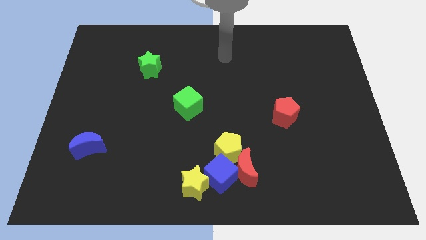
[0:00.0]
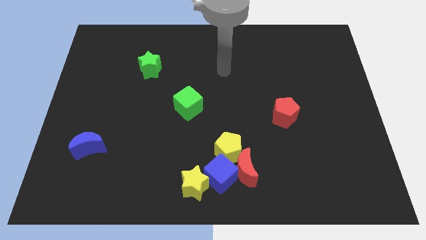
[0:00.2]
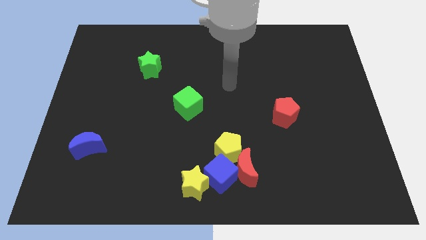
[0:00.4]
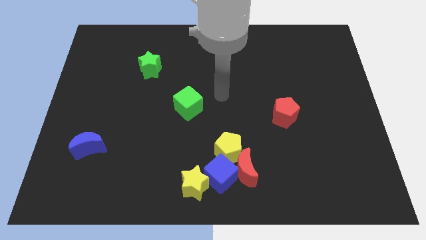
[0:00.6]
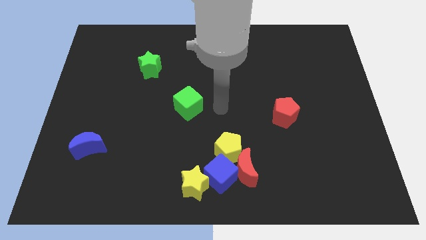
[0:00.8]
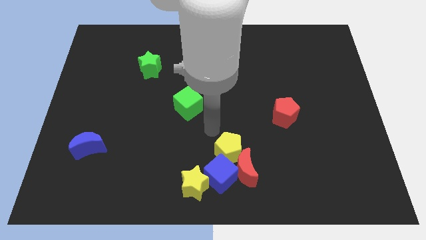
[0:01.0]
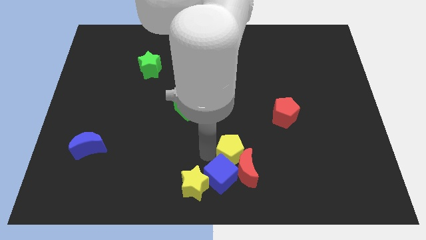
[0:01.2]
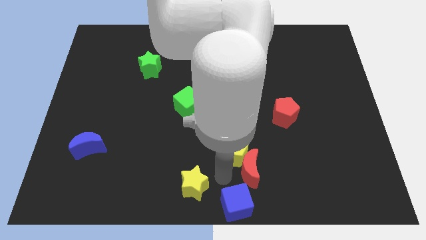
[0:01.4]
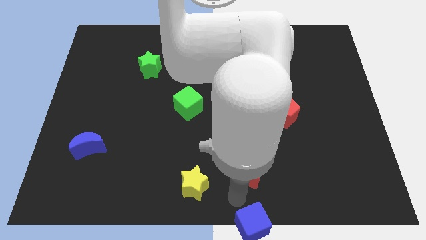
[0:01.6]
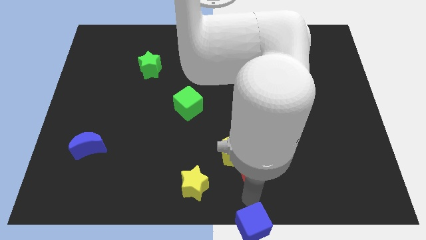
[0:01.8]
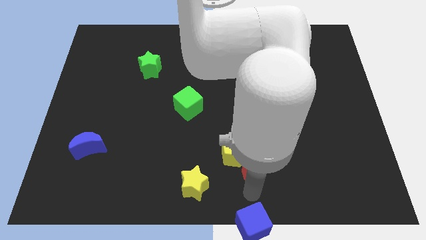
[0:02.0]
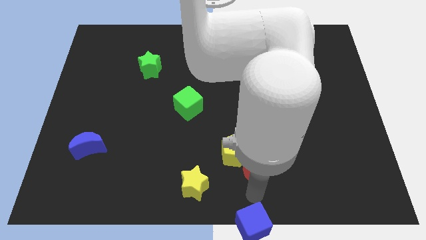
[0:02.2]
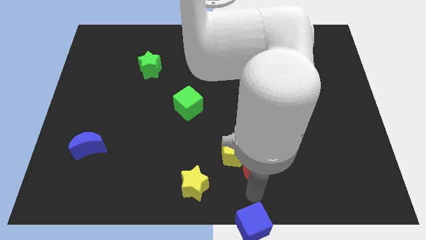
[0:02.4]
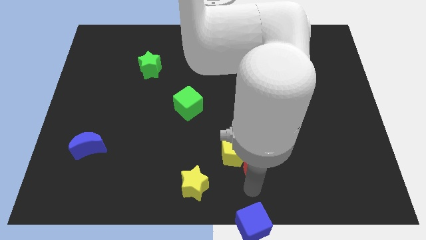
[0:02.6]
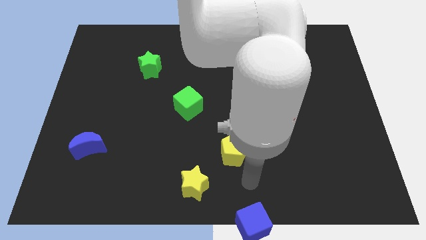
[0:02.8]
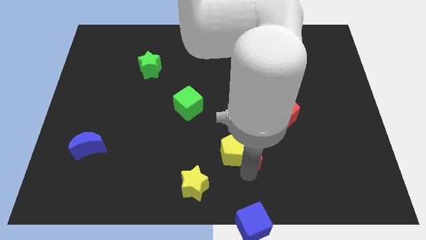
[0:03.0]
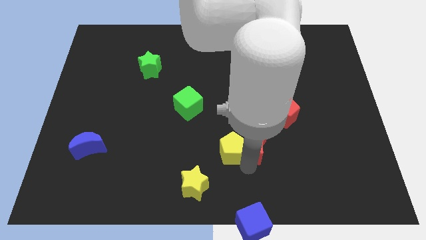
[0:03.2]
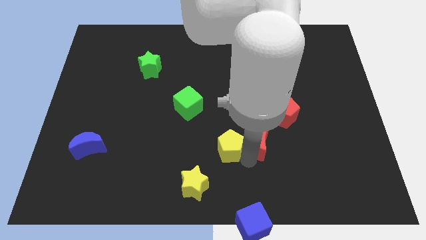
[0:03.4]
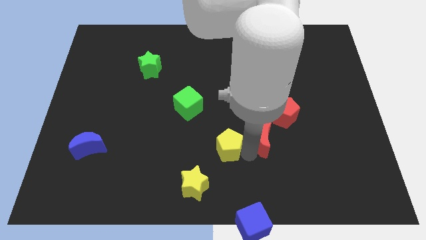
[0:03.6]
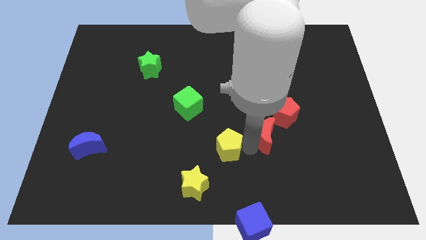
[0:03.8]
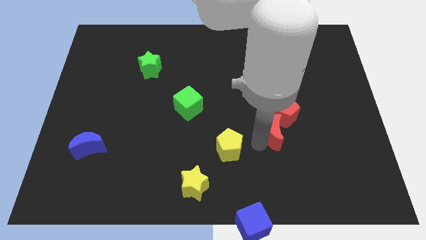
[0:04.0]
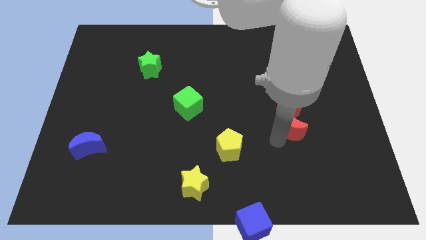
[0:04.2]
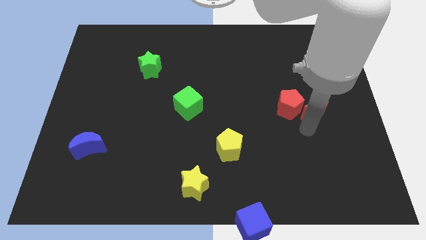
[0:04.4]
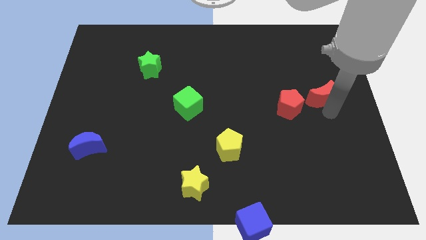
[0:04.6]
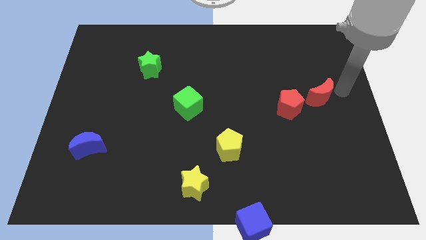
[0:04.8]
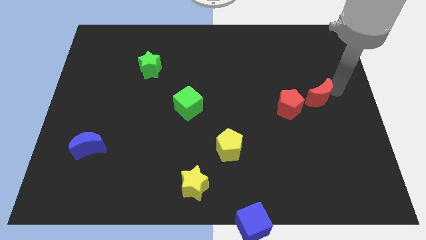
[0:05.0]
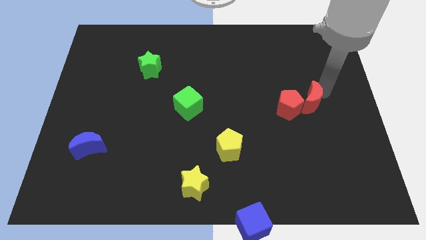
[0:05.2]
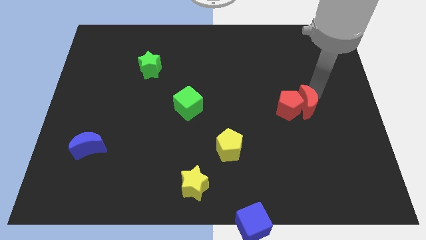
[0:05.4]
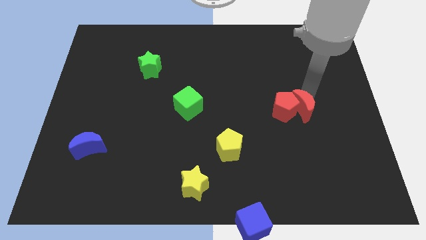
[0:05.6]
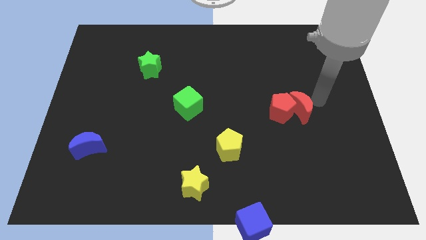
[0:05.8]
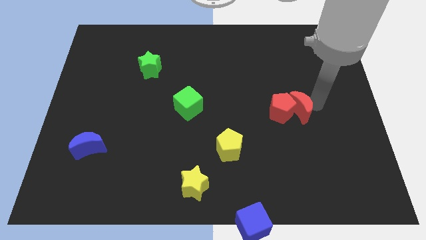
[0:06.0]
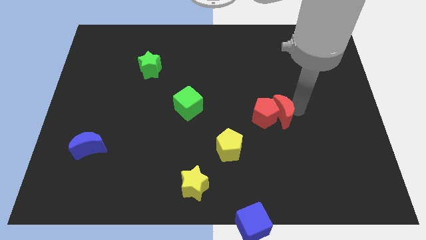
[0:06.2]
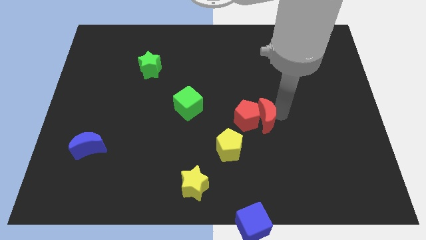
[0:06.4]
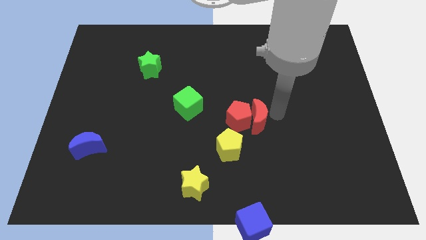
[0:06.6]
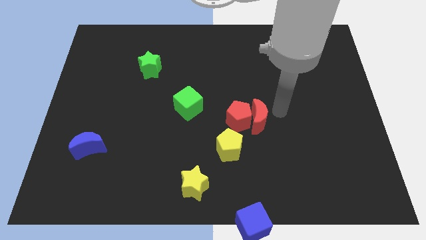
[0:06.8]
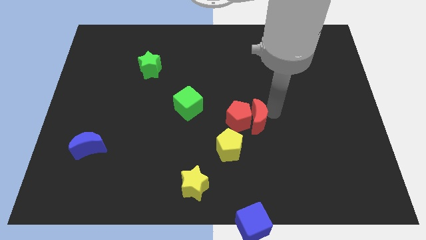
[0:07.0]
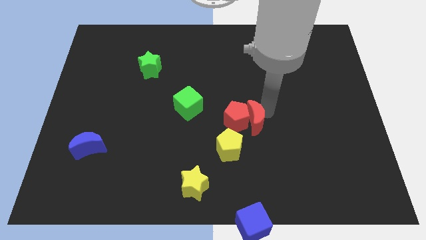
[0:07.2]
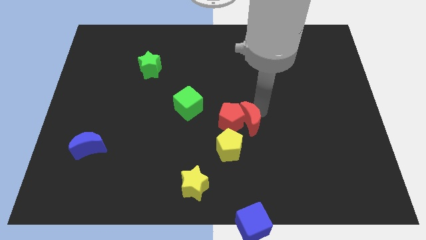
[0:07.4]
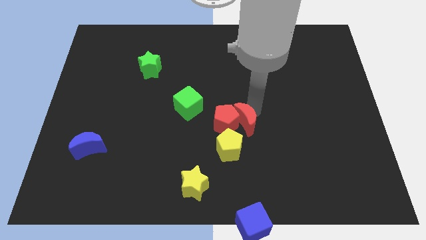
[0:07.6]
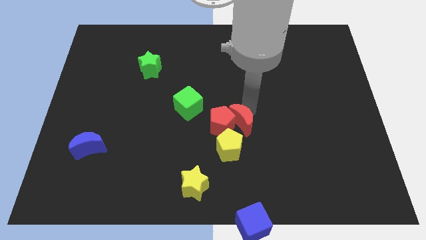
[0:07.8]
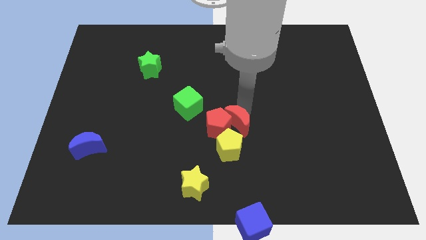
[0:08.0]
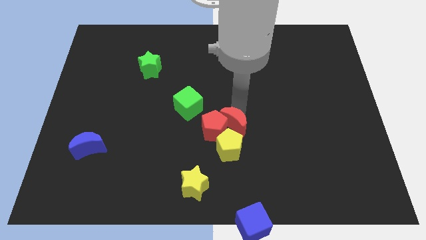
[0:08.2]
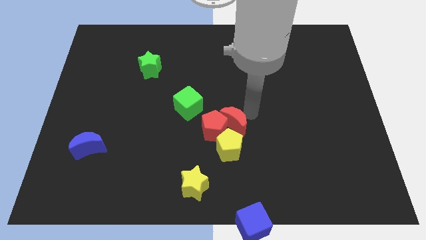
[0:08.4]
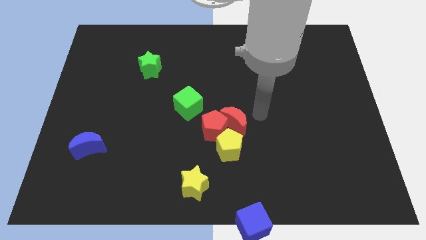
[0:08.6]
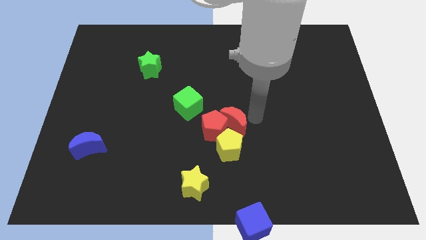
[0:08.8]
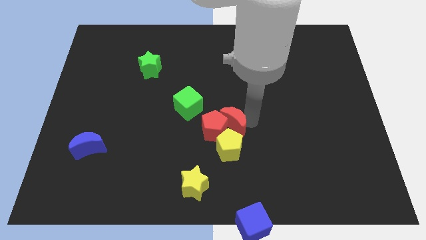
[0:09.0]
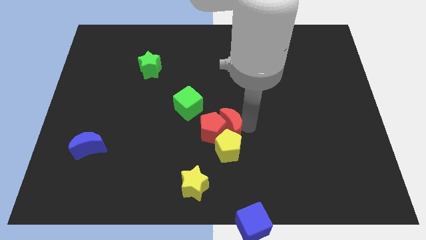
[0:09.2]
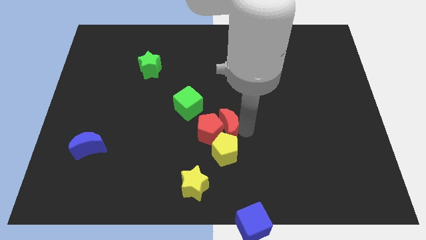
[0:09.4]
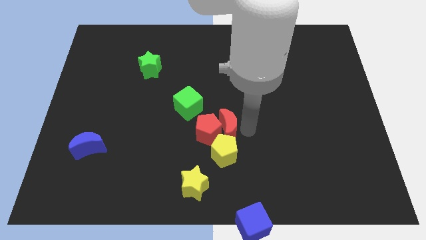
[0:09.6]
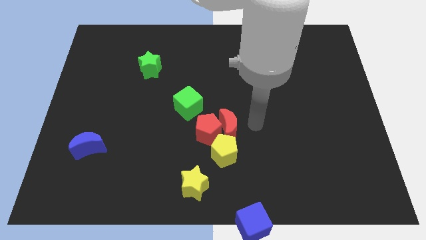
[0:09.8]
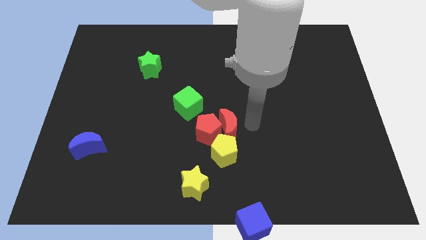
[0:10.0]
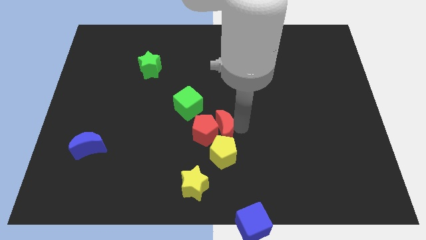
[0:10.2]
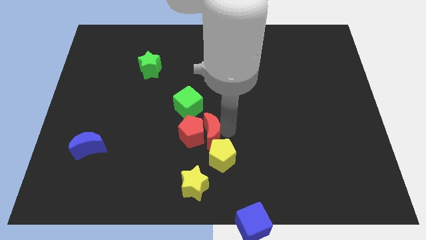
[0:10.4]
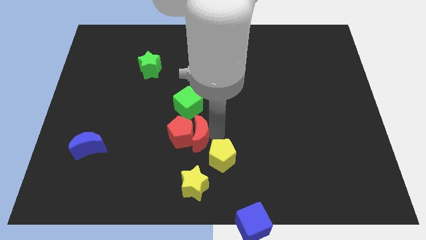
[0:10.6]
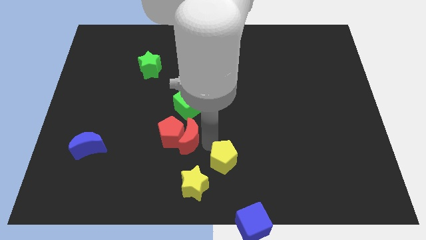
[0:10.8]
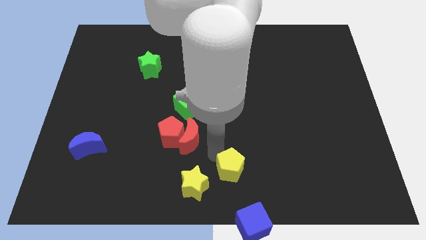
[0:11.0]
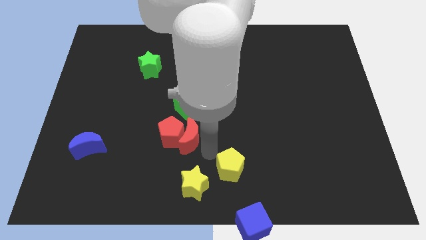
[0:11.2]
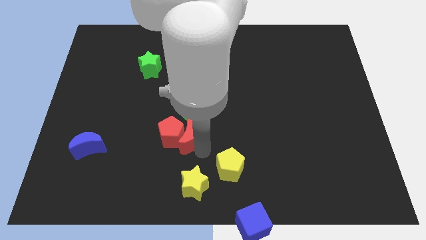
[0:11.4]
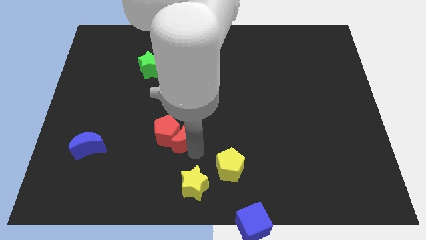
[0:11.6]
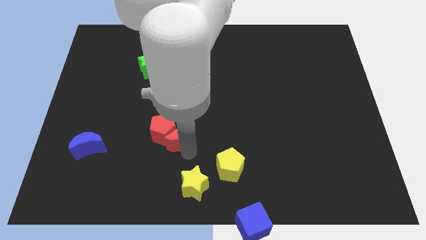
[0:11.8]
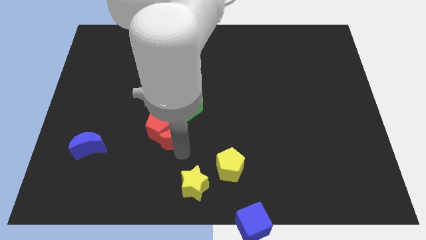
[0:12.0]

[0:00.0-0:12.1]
move the red moon diagonally down and to the left of the green cube

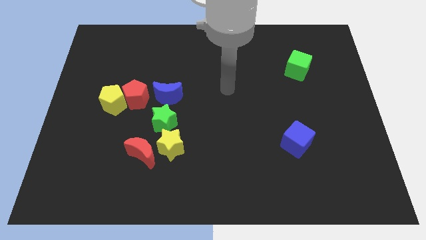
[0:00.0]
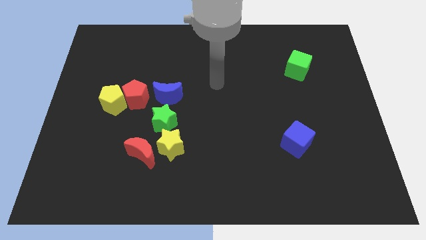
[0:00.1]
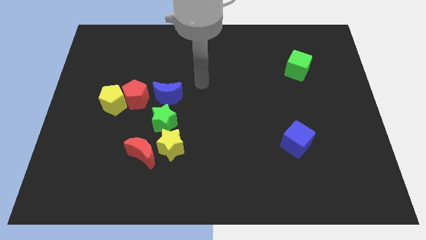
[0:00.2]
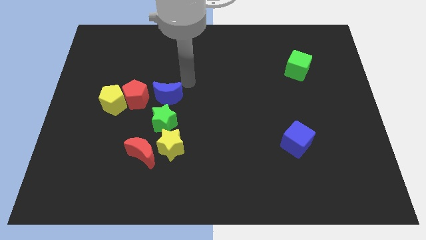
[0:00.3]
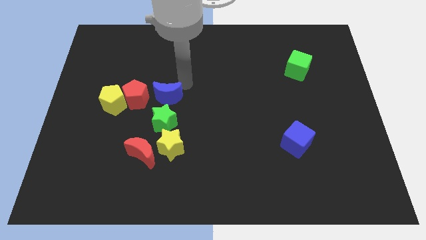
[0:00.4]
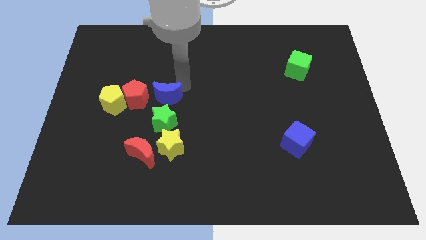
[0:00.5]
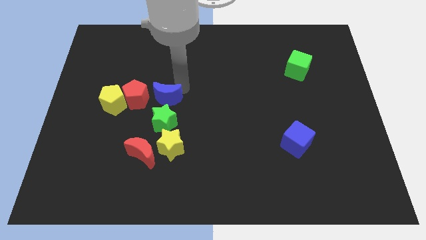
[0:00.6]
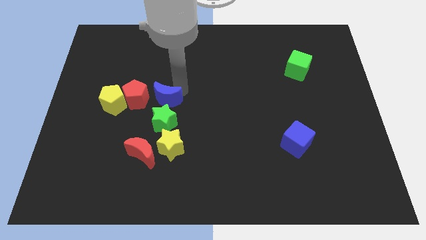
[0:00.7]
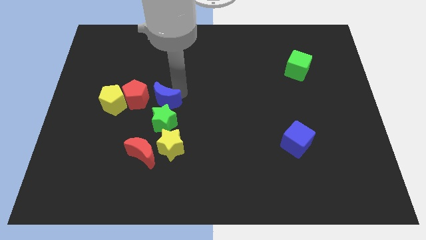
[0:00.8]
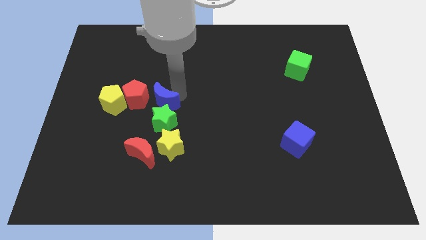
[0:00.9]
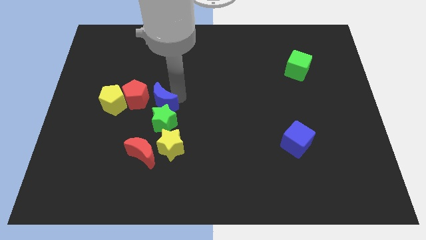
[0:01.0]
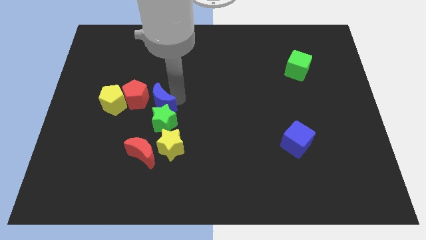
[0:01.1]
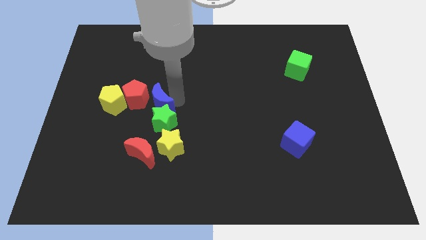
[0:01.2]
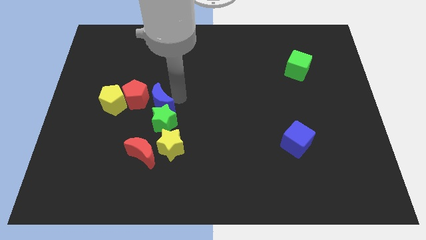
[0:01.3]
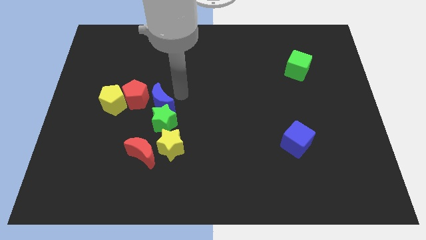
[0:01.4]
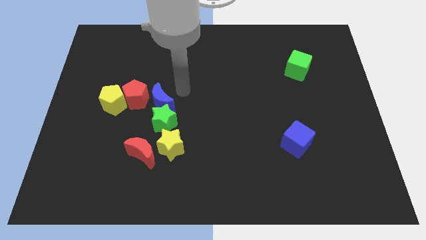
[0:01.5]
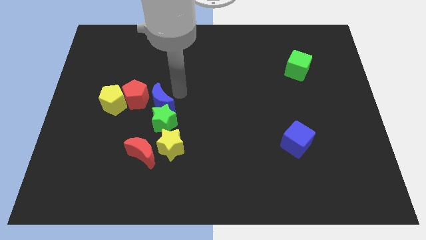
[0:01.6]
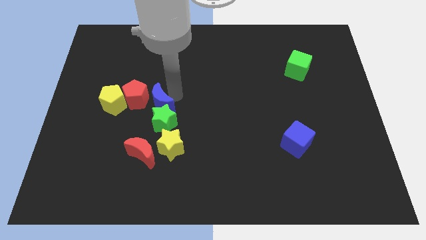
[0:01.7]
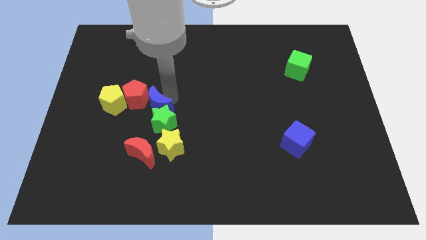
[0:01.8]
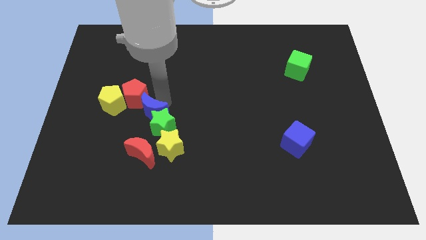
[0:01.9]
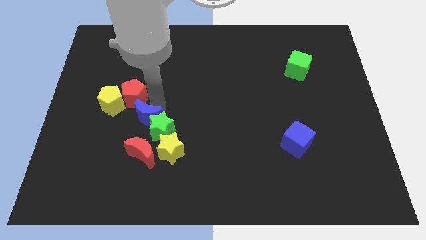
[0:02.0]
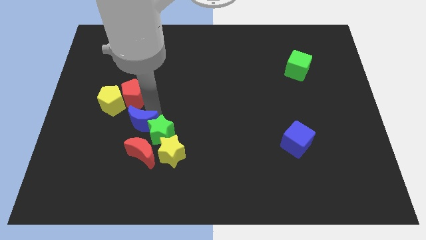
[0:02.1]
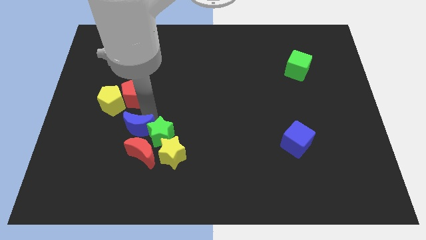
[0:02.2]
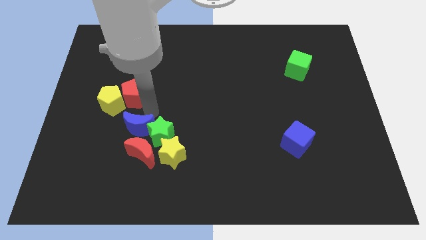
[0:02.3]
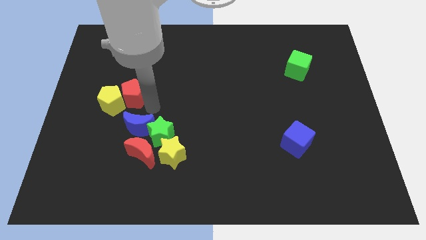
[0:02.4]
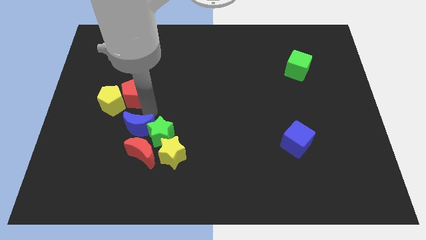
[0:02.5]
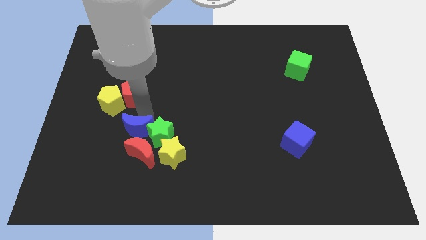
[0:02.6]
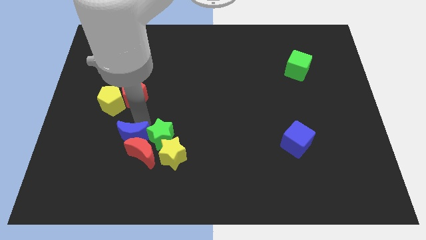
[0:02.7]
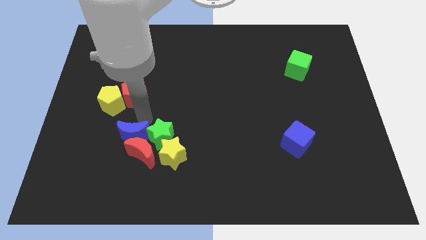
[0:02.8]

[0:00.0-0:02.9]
slide the blue moon to the left of the yellow star
